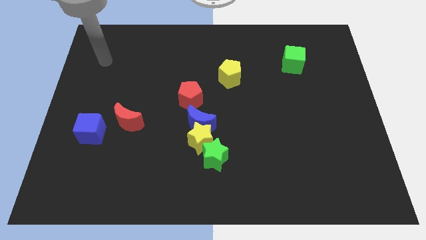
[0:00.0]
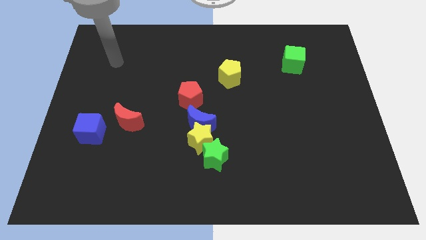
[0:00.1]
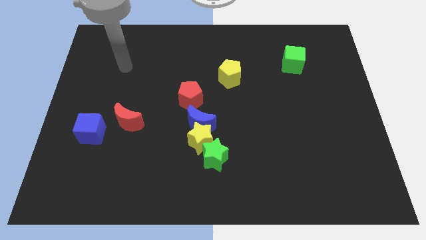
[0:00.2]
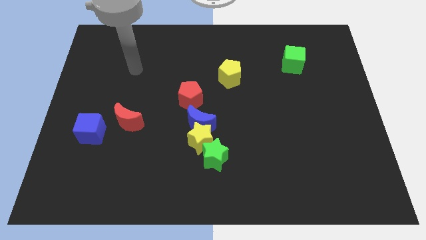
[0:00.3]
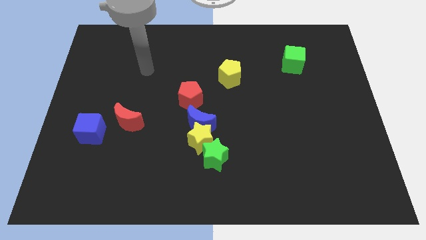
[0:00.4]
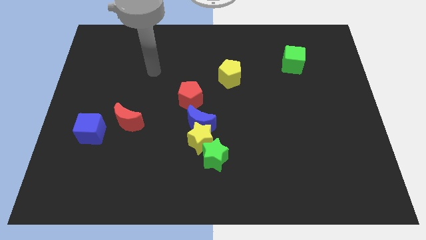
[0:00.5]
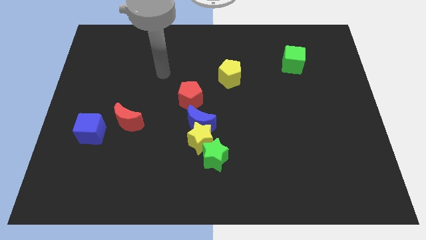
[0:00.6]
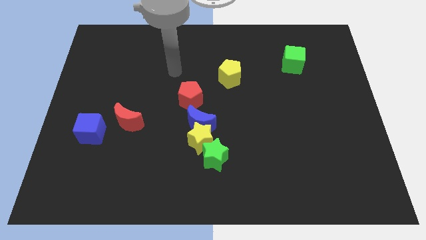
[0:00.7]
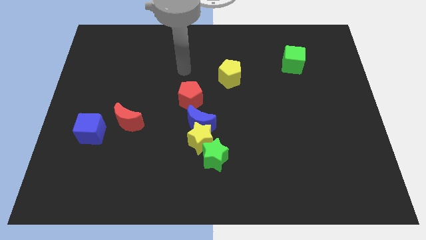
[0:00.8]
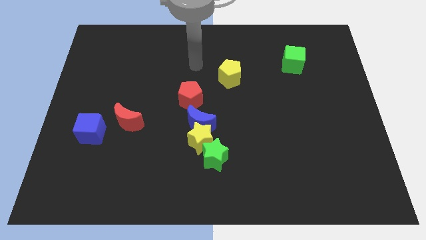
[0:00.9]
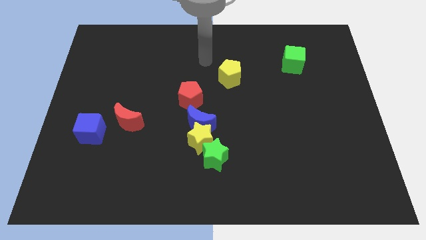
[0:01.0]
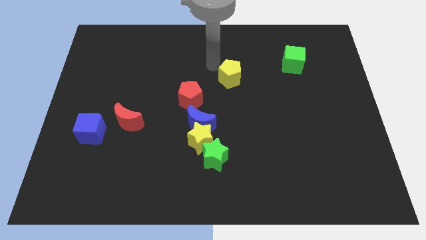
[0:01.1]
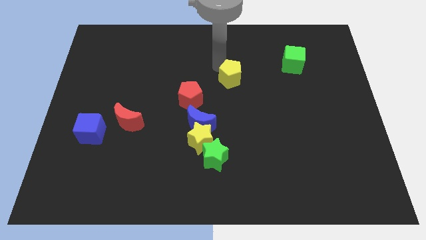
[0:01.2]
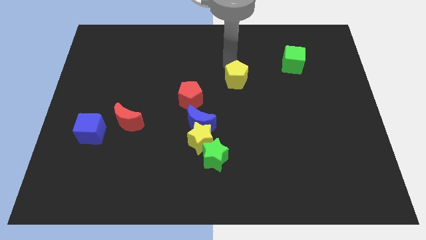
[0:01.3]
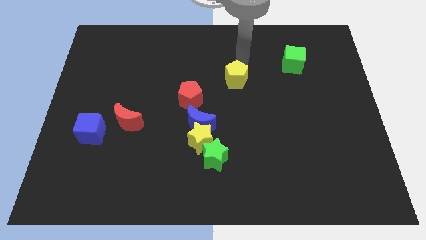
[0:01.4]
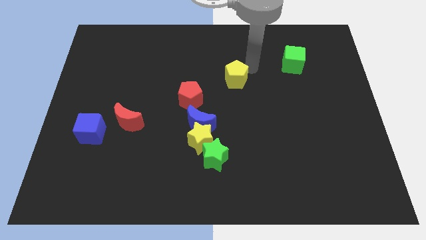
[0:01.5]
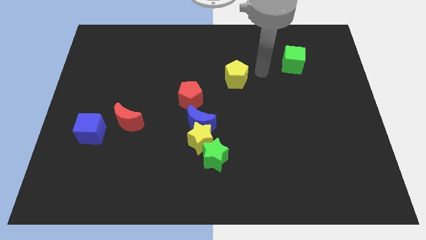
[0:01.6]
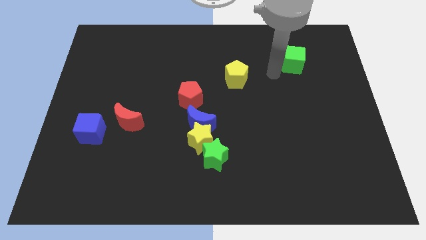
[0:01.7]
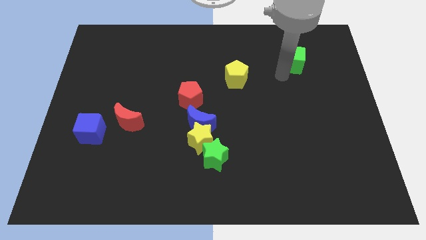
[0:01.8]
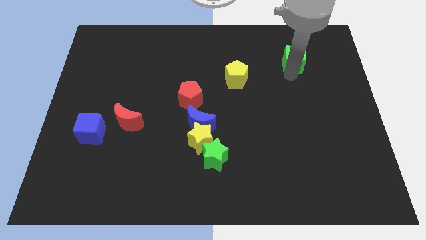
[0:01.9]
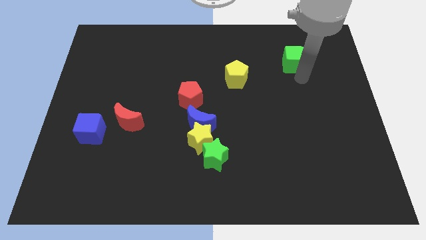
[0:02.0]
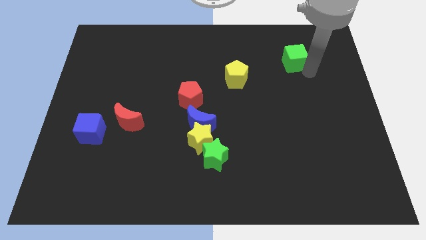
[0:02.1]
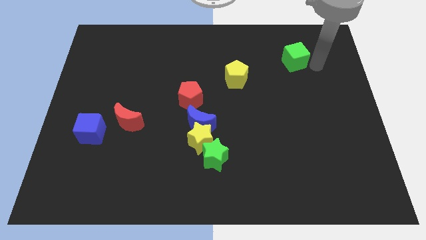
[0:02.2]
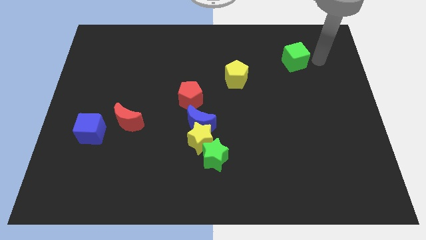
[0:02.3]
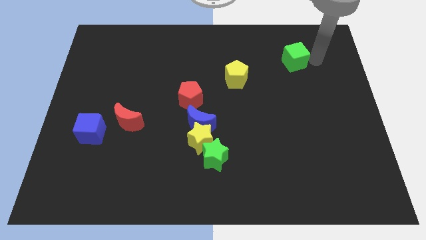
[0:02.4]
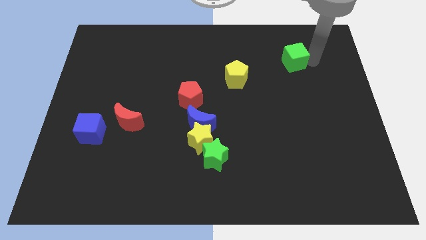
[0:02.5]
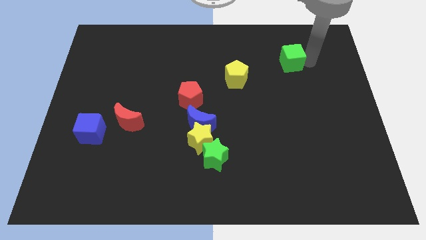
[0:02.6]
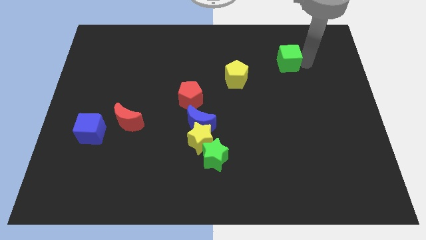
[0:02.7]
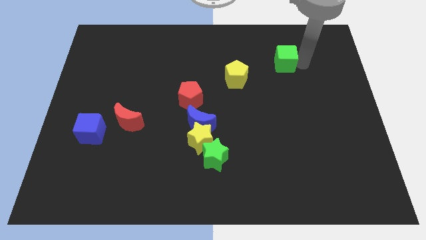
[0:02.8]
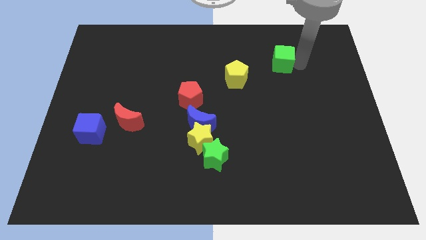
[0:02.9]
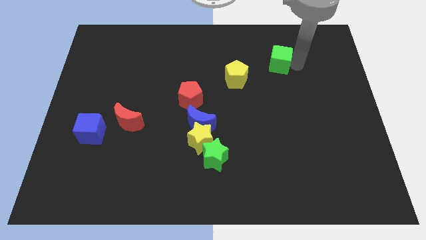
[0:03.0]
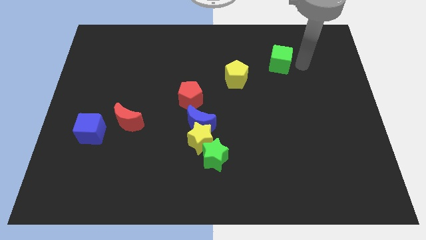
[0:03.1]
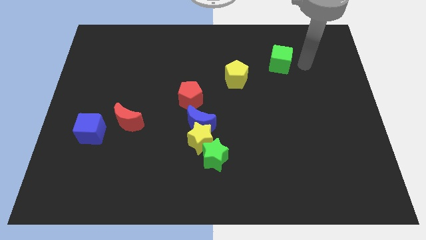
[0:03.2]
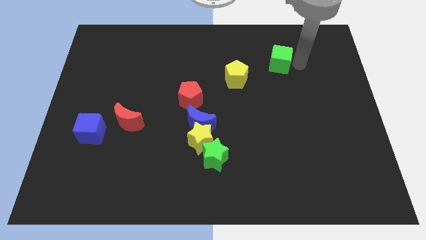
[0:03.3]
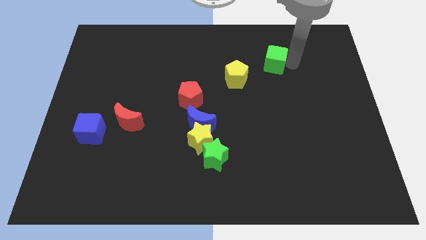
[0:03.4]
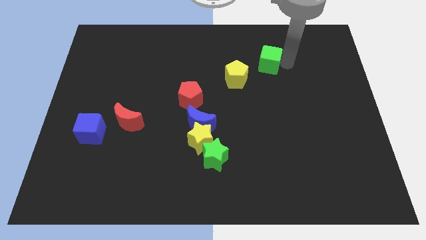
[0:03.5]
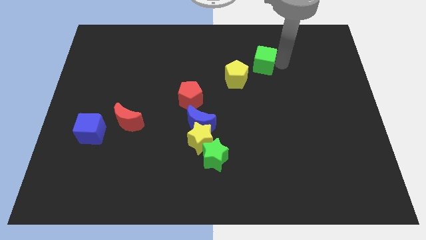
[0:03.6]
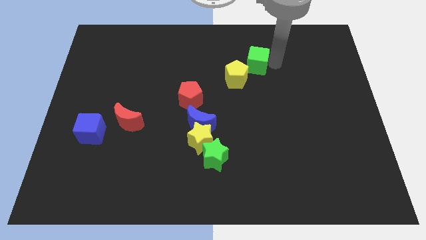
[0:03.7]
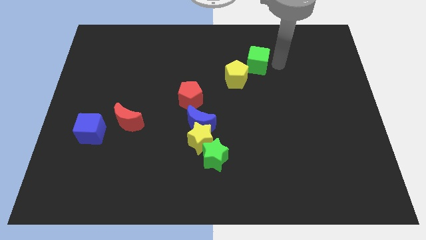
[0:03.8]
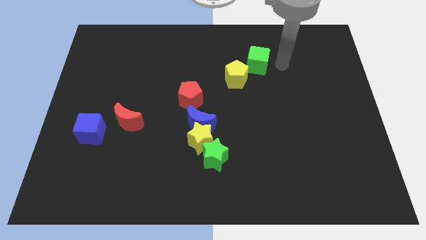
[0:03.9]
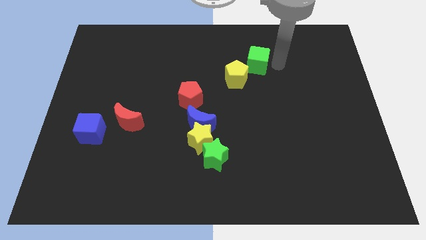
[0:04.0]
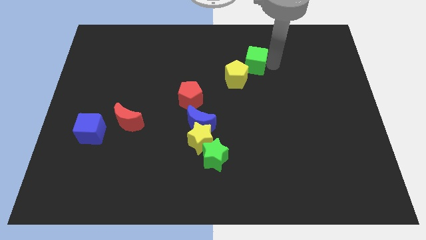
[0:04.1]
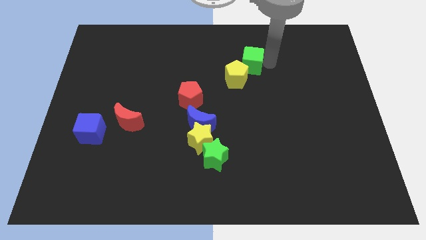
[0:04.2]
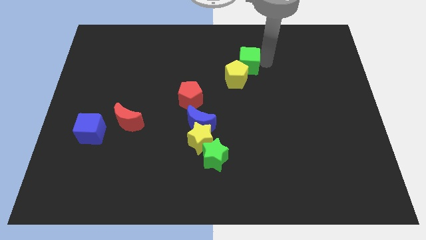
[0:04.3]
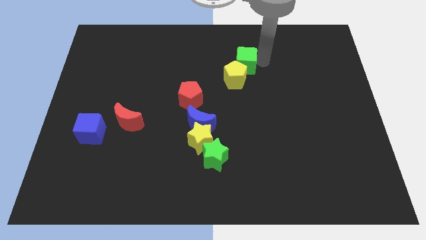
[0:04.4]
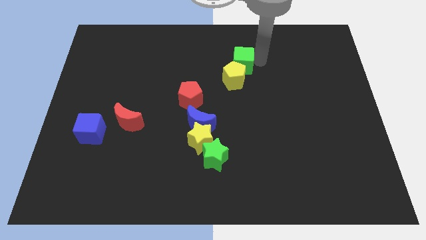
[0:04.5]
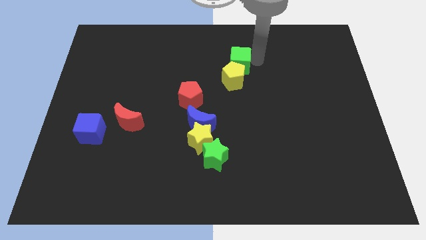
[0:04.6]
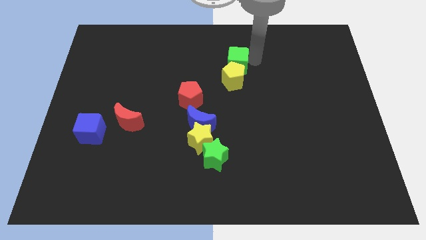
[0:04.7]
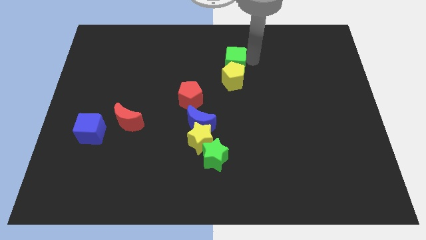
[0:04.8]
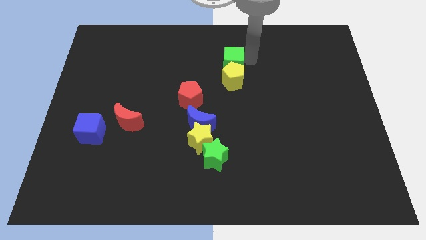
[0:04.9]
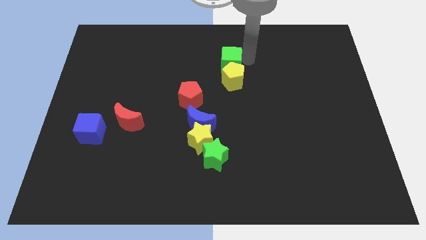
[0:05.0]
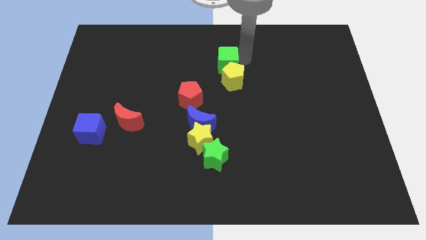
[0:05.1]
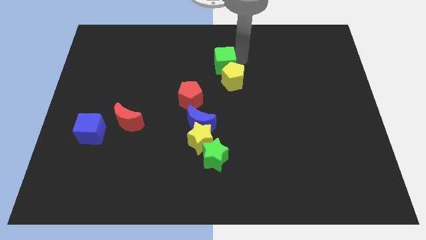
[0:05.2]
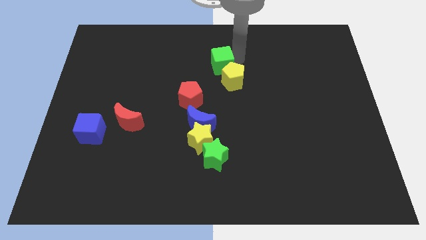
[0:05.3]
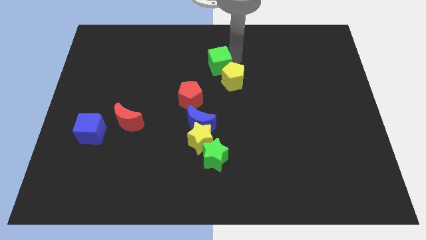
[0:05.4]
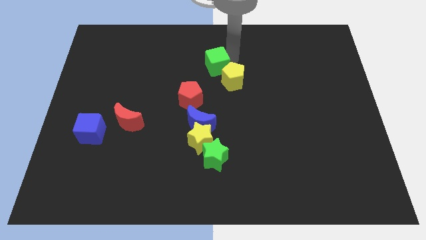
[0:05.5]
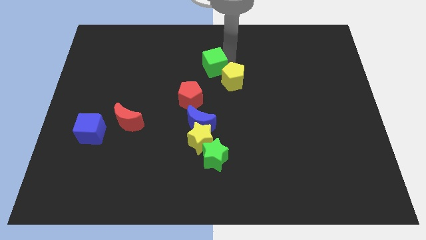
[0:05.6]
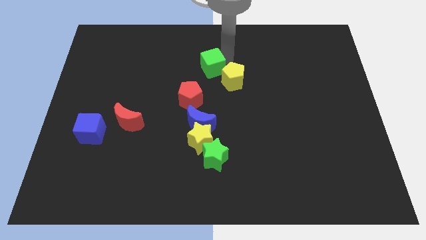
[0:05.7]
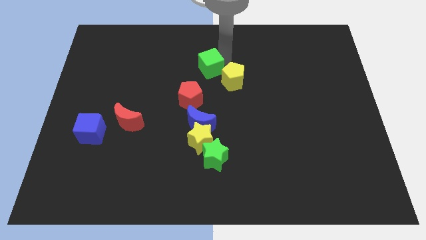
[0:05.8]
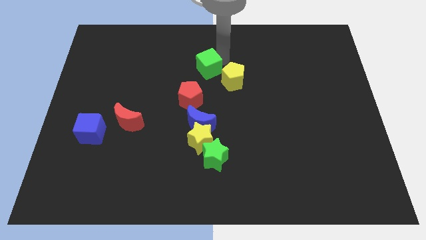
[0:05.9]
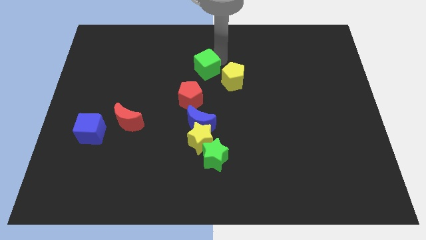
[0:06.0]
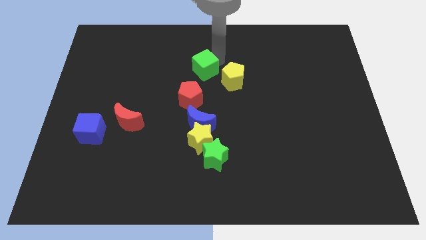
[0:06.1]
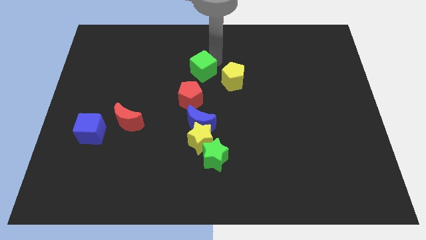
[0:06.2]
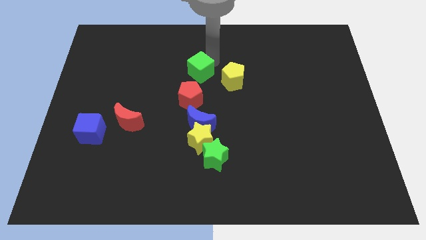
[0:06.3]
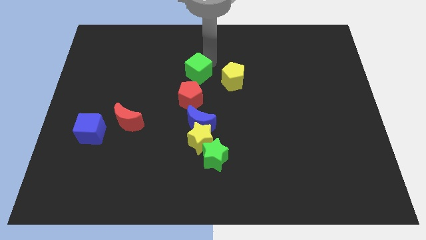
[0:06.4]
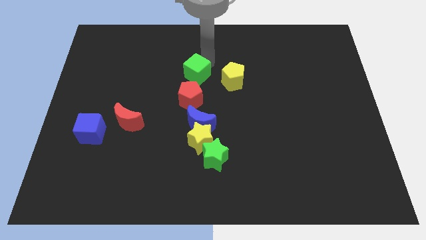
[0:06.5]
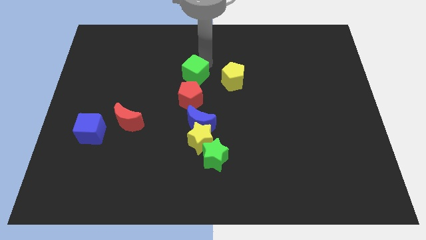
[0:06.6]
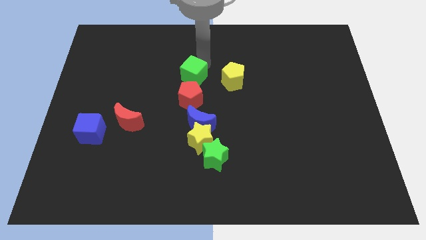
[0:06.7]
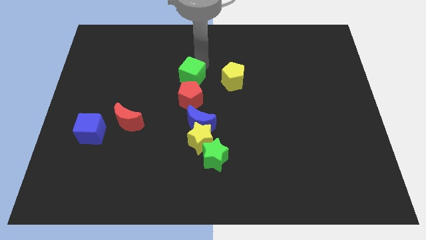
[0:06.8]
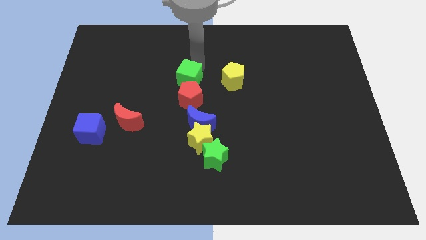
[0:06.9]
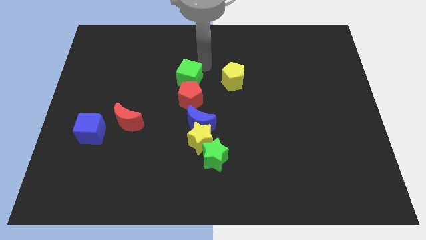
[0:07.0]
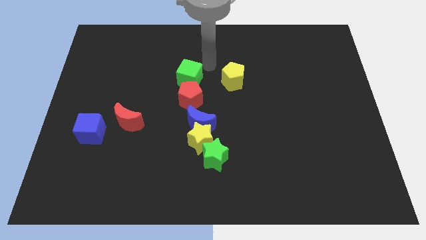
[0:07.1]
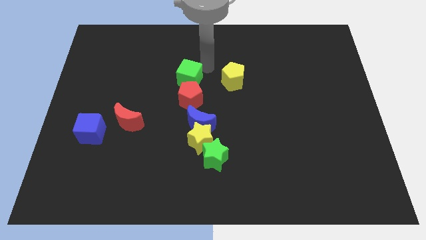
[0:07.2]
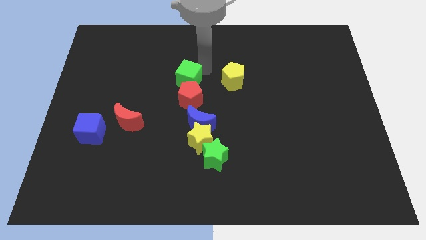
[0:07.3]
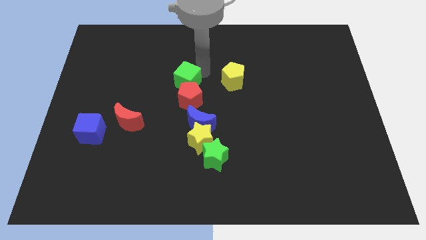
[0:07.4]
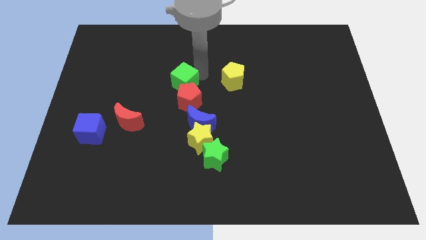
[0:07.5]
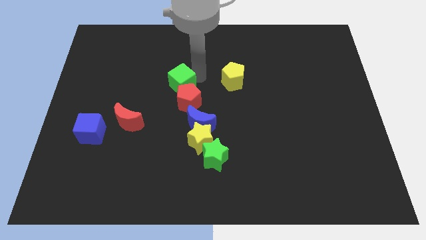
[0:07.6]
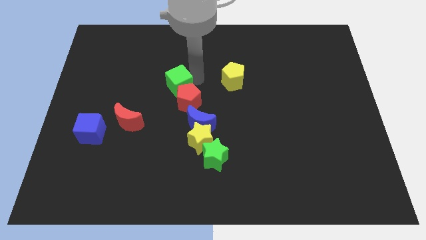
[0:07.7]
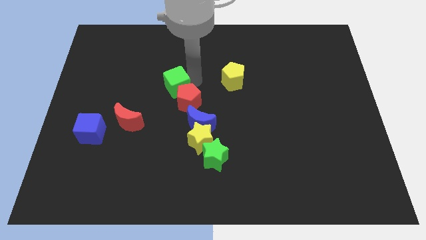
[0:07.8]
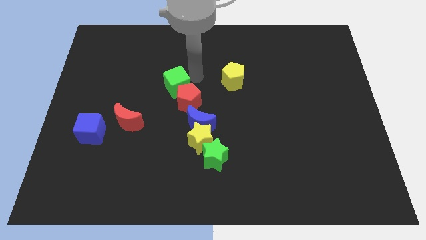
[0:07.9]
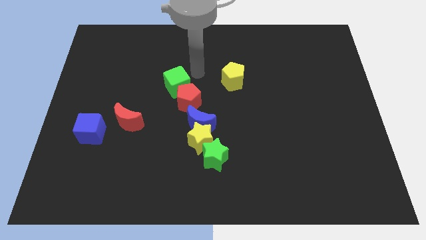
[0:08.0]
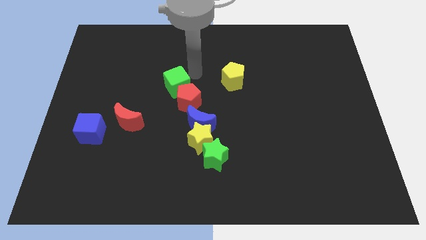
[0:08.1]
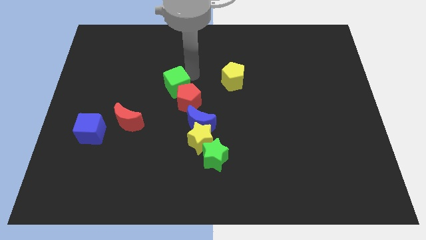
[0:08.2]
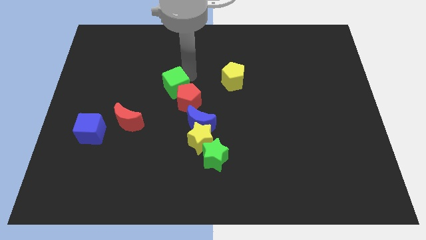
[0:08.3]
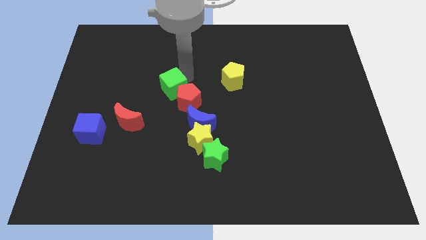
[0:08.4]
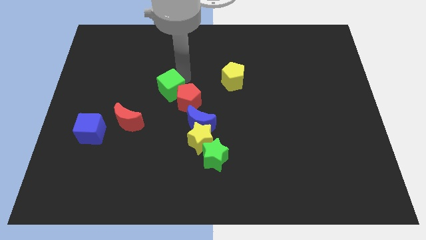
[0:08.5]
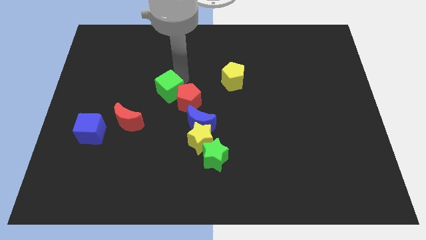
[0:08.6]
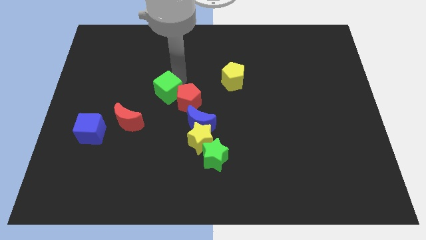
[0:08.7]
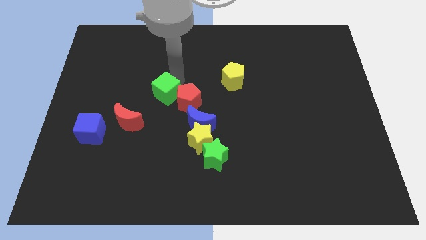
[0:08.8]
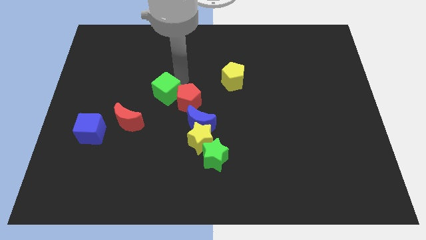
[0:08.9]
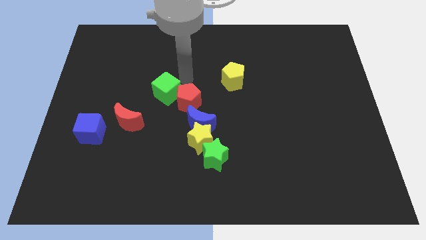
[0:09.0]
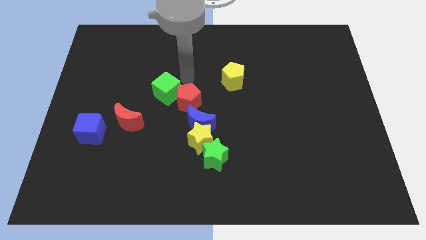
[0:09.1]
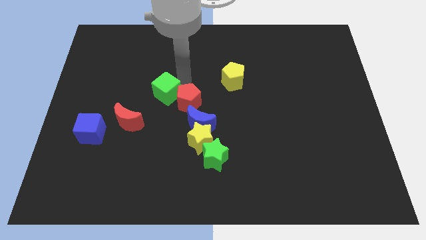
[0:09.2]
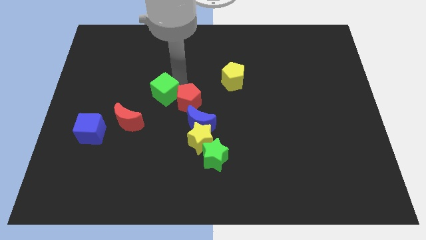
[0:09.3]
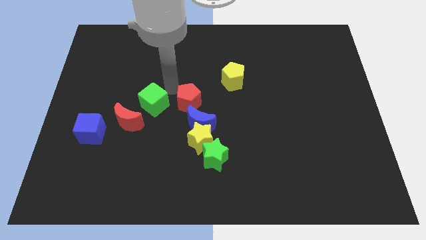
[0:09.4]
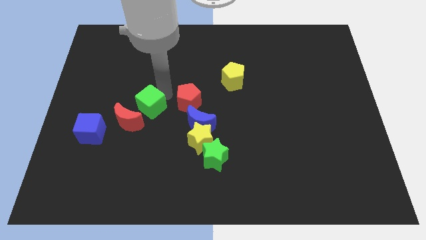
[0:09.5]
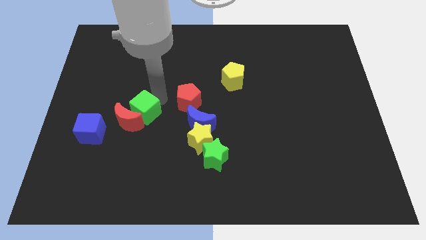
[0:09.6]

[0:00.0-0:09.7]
put the green cube towards the red moon
